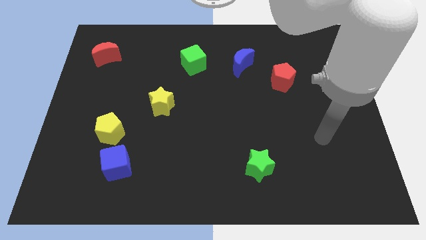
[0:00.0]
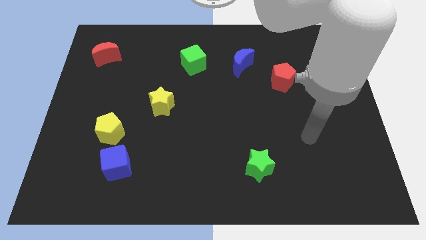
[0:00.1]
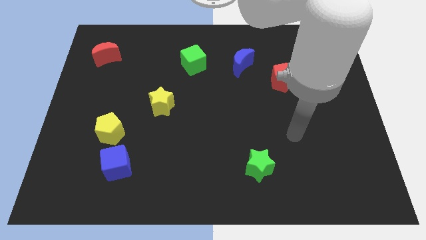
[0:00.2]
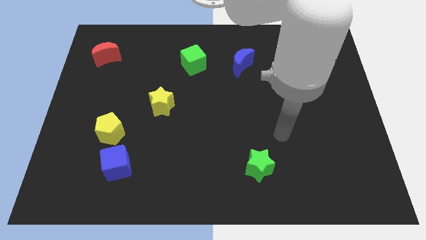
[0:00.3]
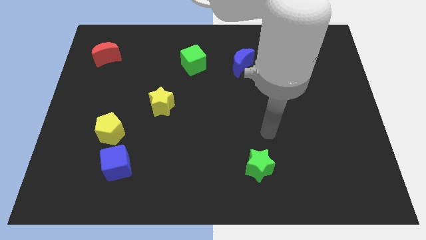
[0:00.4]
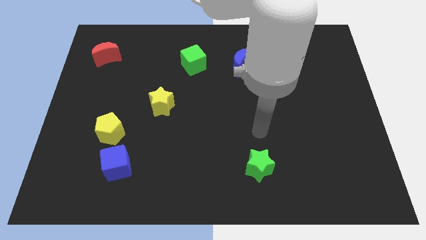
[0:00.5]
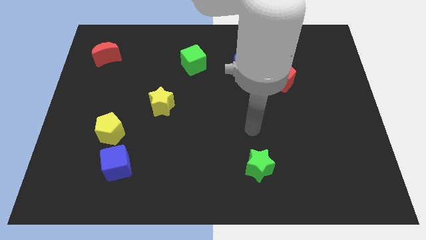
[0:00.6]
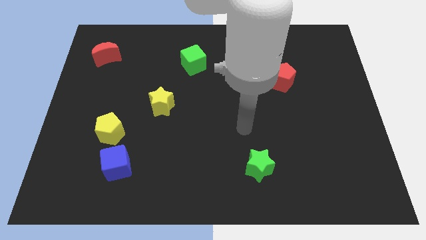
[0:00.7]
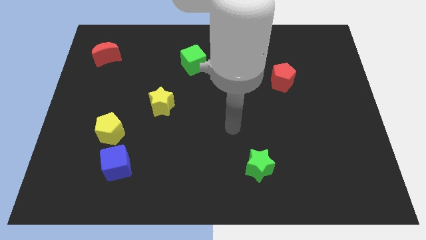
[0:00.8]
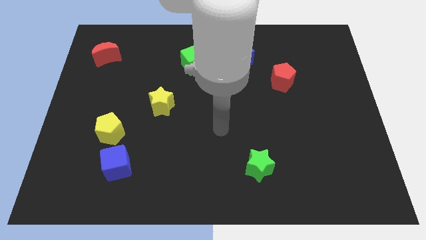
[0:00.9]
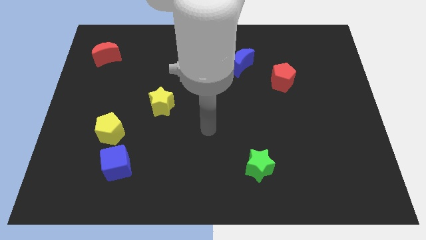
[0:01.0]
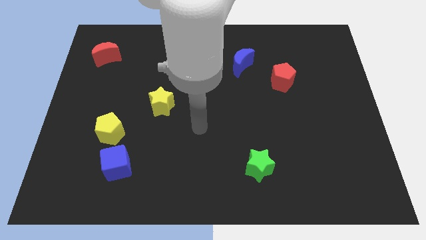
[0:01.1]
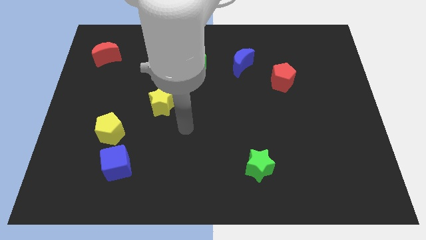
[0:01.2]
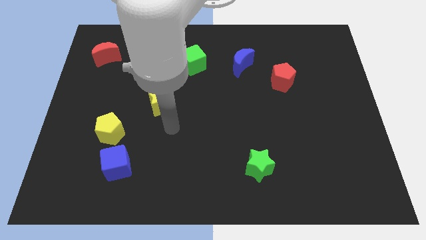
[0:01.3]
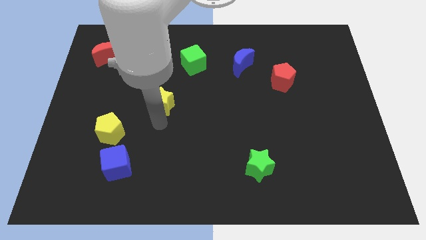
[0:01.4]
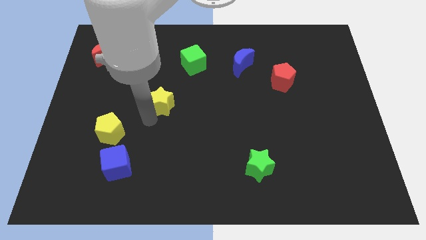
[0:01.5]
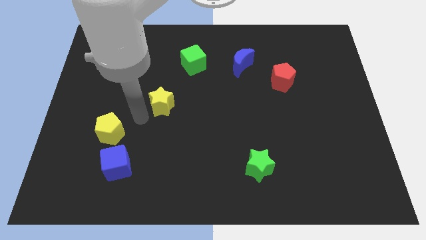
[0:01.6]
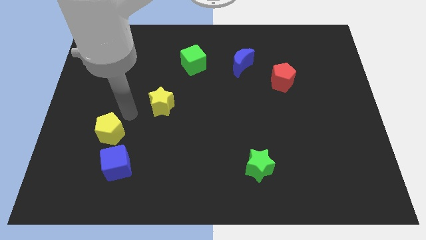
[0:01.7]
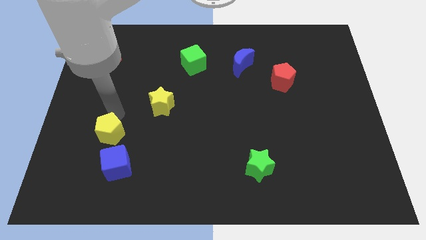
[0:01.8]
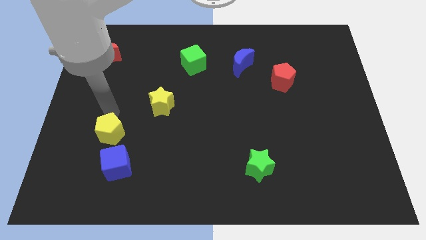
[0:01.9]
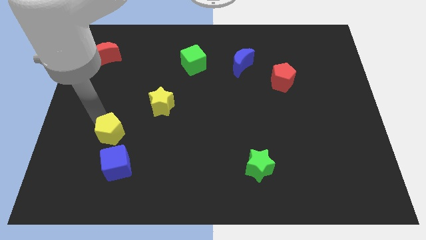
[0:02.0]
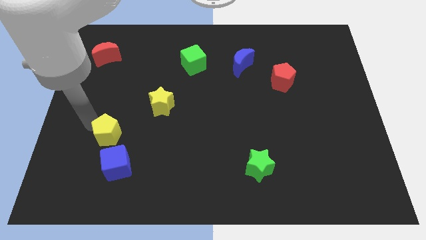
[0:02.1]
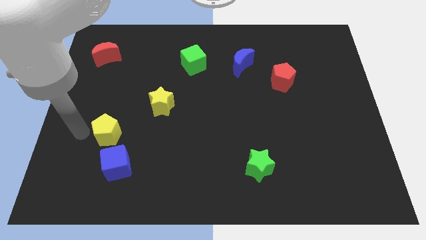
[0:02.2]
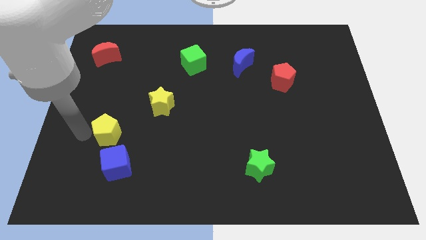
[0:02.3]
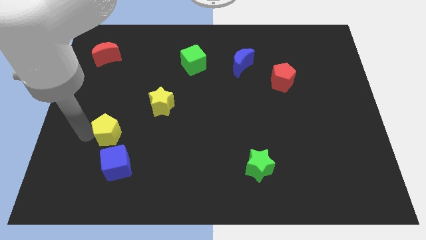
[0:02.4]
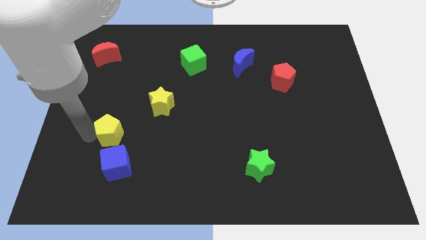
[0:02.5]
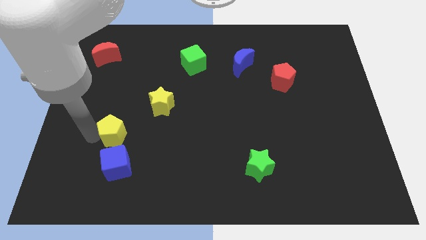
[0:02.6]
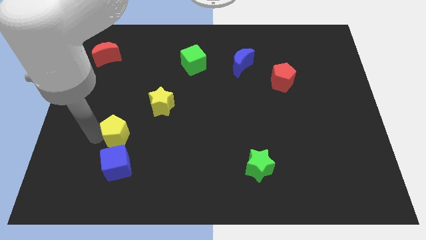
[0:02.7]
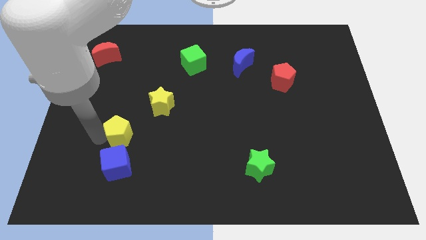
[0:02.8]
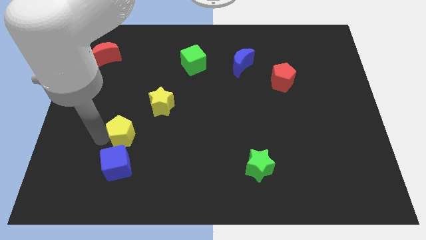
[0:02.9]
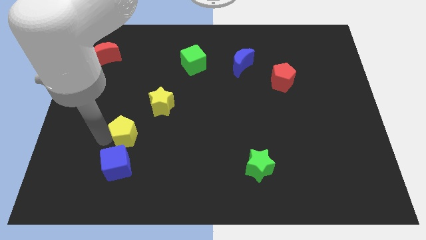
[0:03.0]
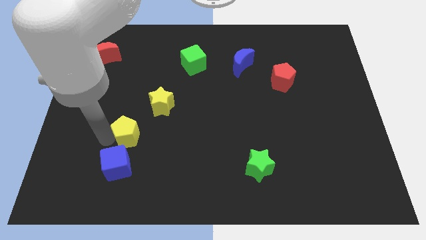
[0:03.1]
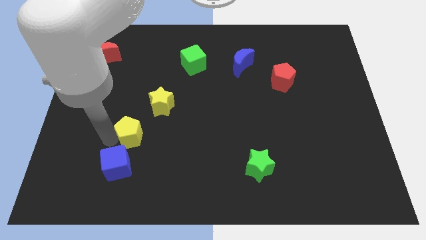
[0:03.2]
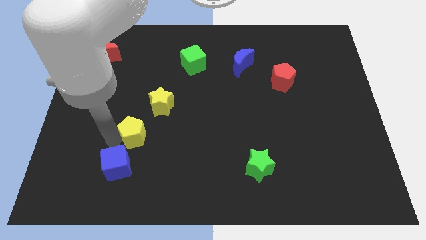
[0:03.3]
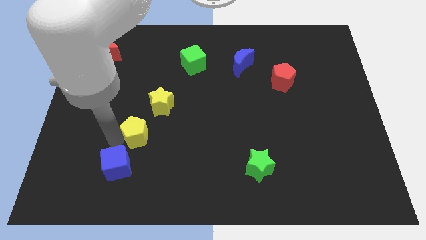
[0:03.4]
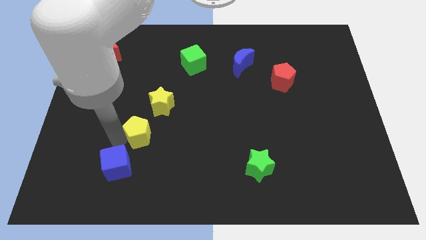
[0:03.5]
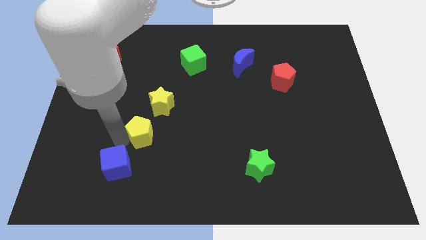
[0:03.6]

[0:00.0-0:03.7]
slide the yellow pentagon a little to the right

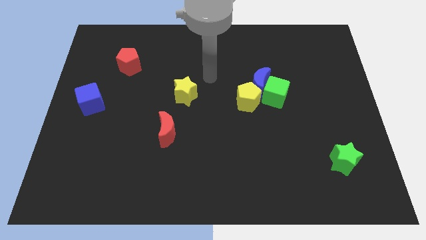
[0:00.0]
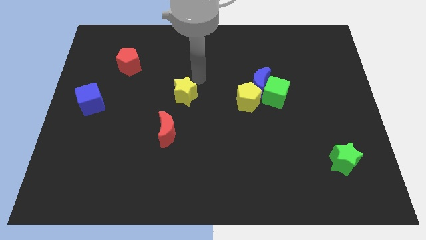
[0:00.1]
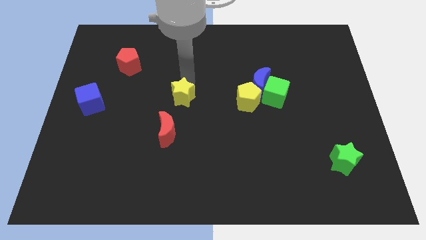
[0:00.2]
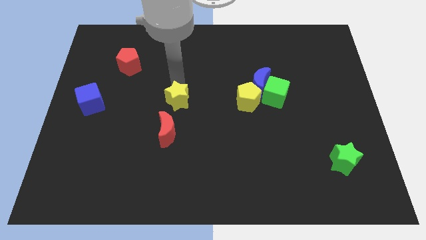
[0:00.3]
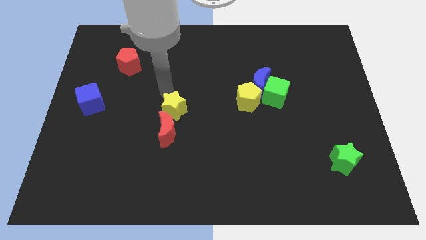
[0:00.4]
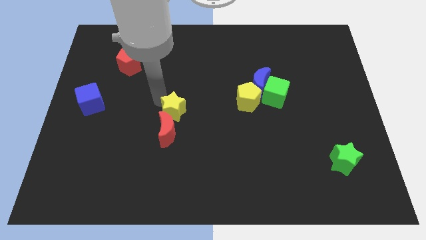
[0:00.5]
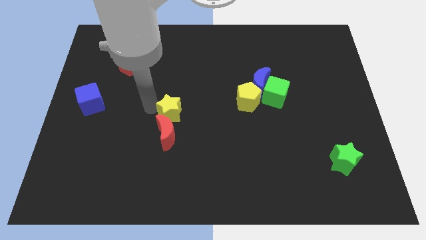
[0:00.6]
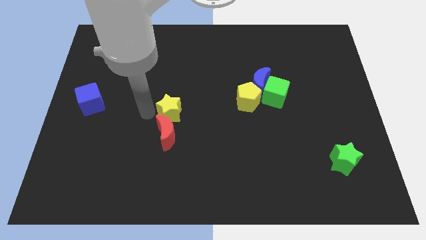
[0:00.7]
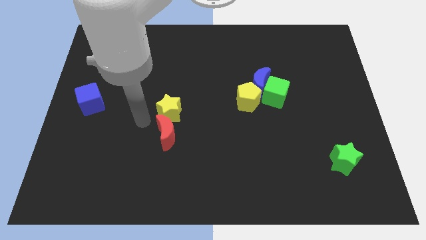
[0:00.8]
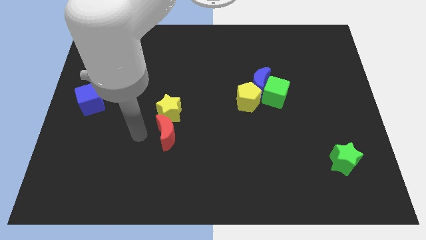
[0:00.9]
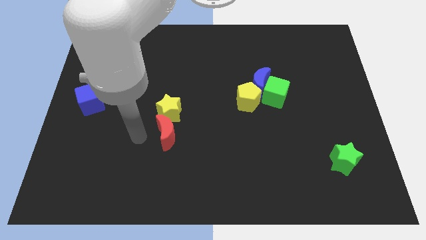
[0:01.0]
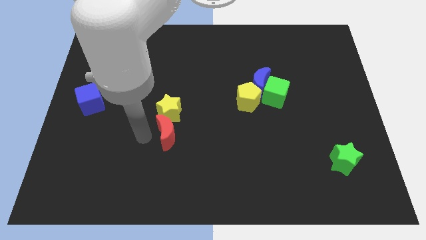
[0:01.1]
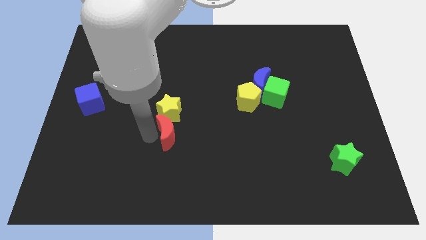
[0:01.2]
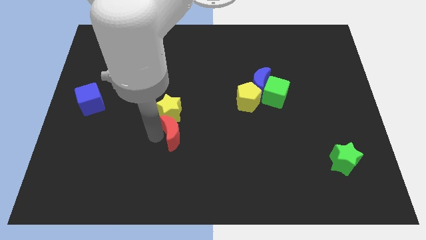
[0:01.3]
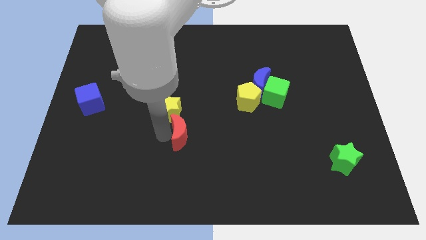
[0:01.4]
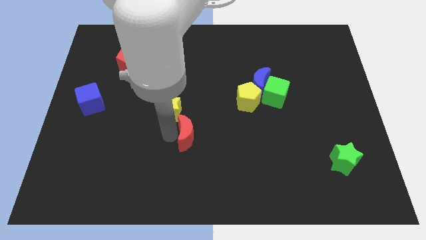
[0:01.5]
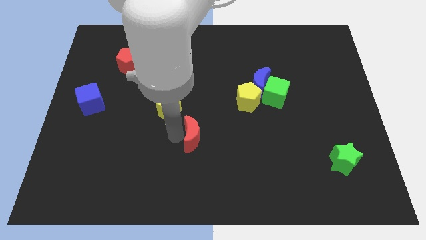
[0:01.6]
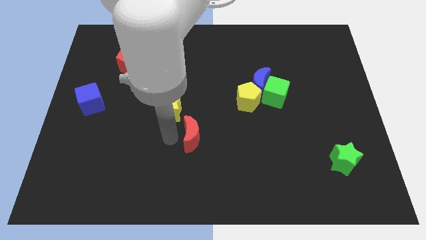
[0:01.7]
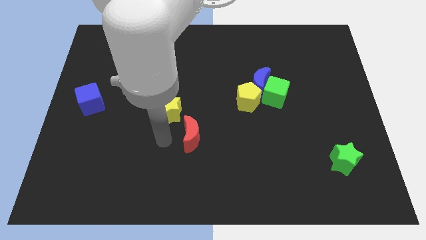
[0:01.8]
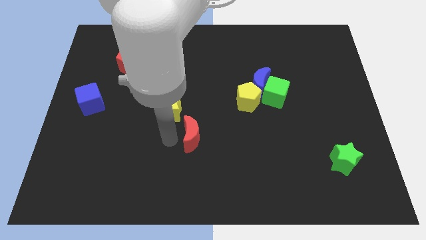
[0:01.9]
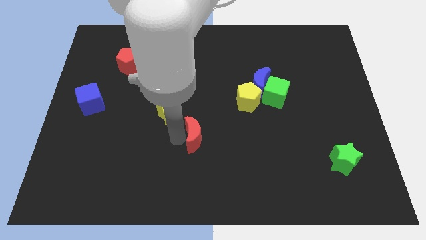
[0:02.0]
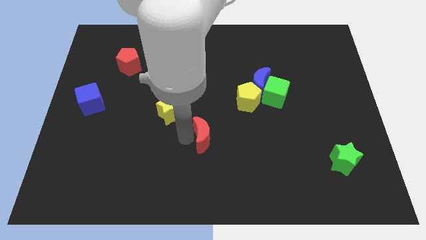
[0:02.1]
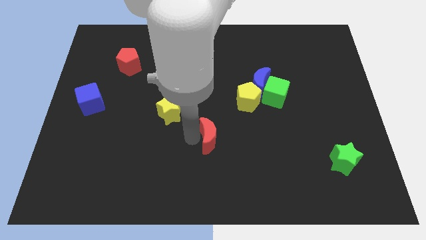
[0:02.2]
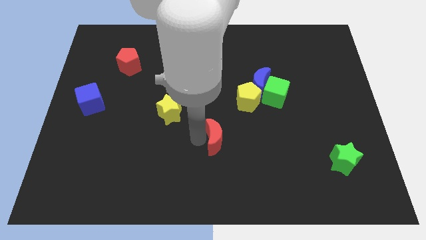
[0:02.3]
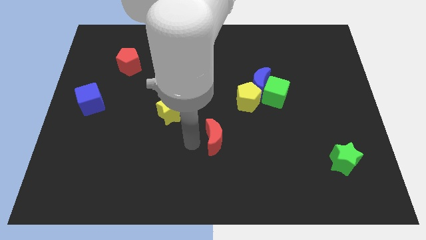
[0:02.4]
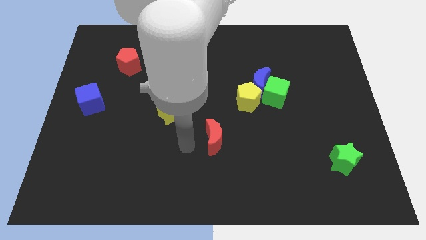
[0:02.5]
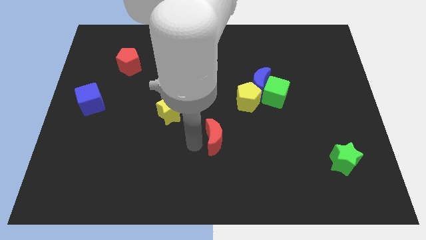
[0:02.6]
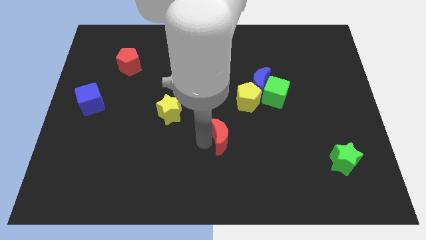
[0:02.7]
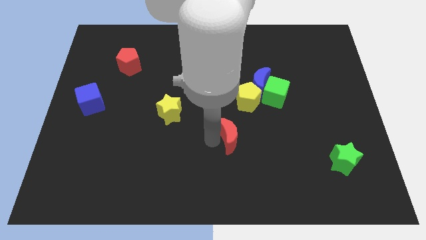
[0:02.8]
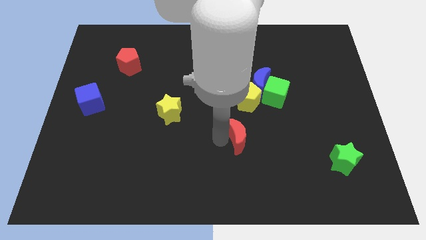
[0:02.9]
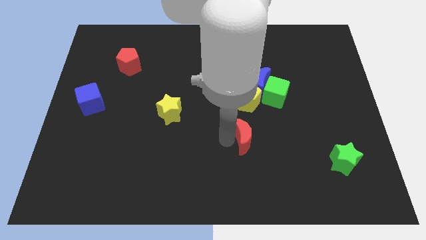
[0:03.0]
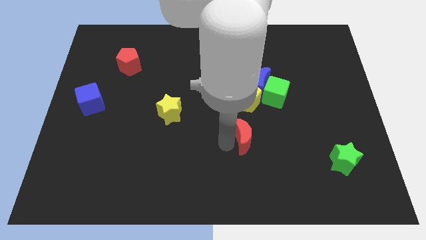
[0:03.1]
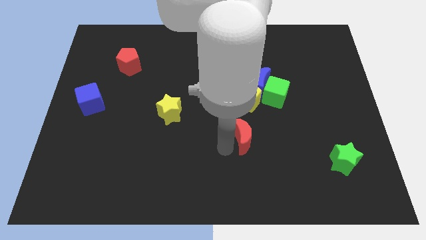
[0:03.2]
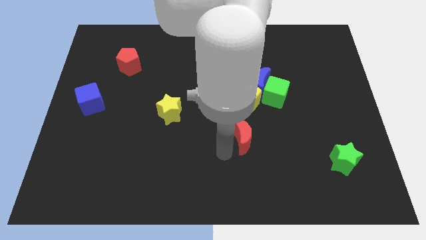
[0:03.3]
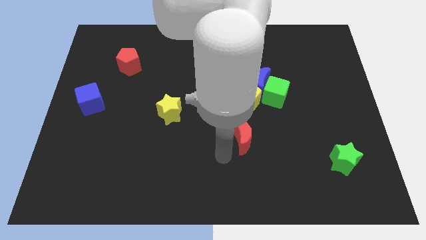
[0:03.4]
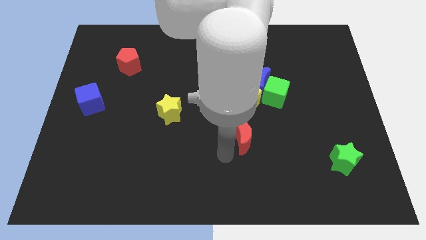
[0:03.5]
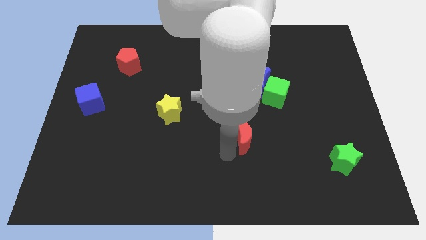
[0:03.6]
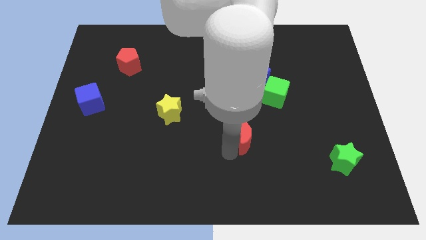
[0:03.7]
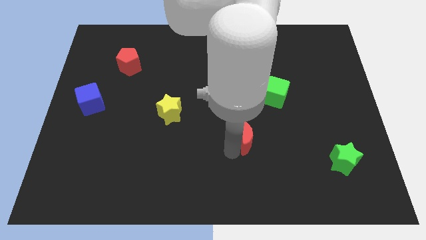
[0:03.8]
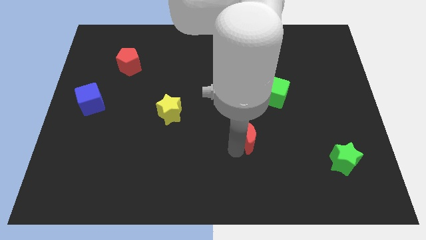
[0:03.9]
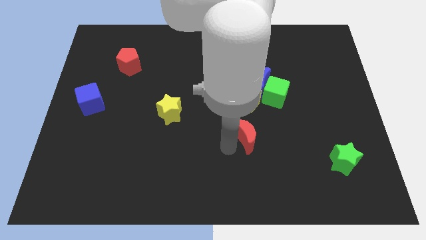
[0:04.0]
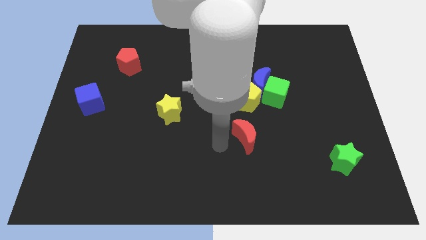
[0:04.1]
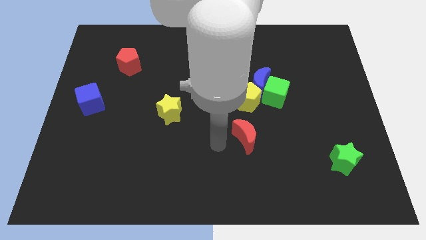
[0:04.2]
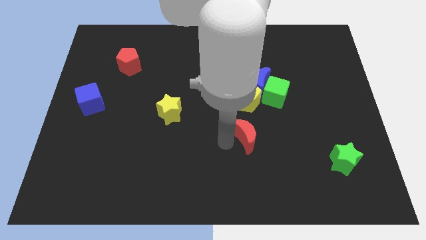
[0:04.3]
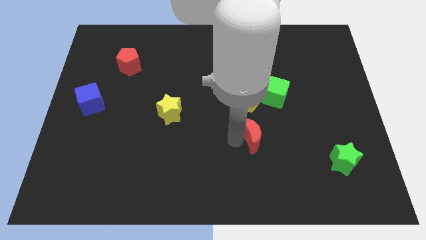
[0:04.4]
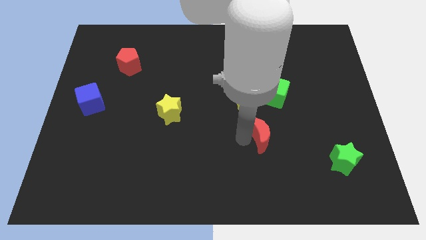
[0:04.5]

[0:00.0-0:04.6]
slide the red moon to the right
